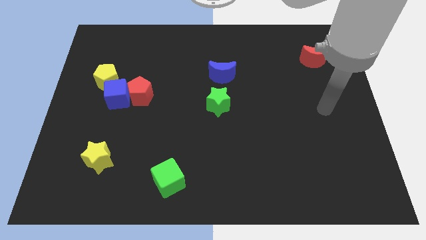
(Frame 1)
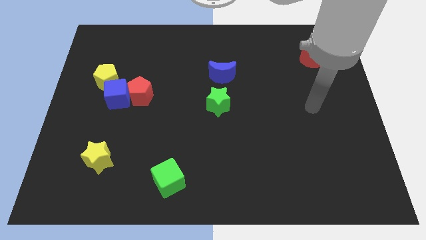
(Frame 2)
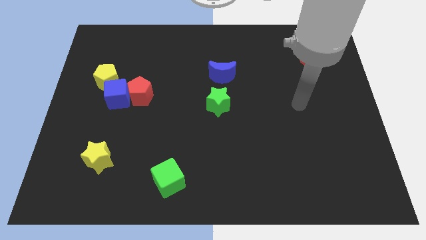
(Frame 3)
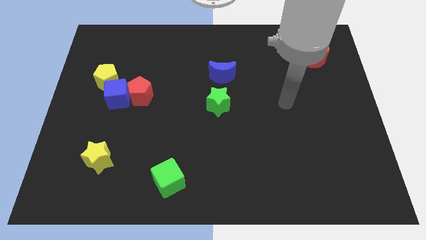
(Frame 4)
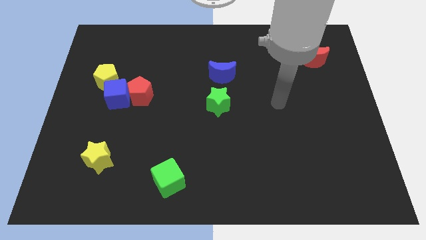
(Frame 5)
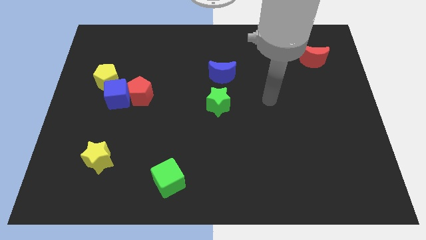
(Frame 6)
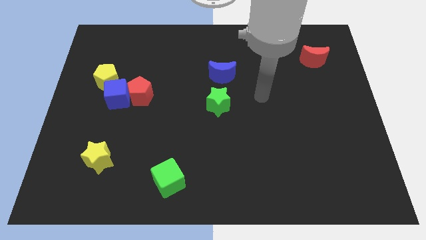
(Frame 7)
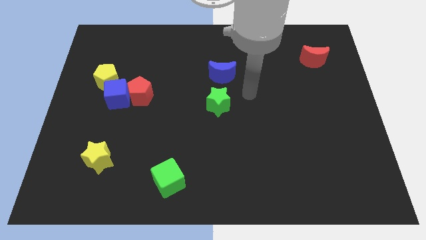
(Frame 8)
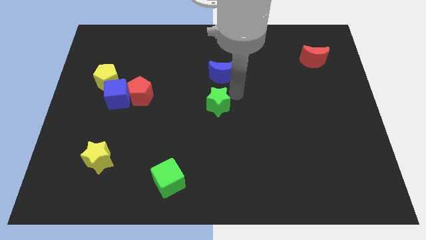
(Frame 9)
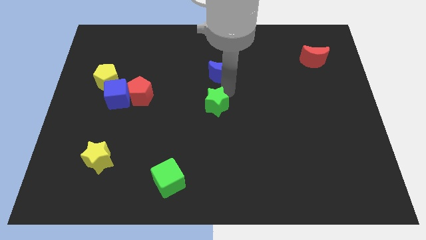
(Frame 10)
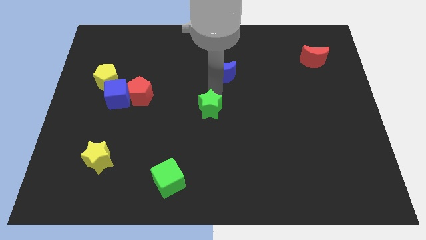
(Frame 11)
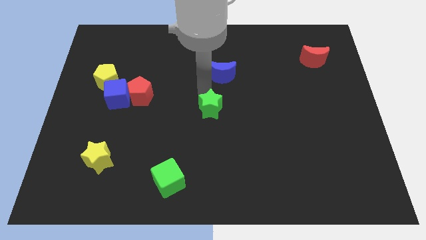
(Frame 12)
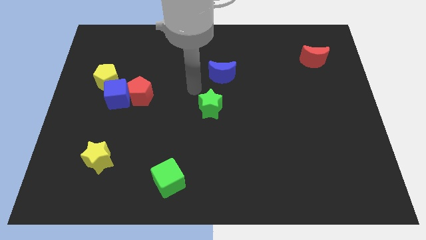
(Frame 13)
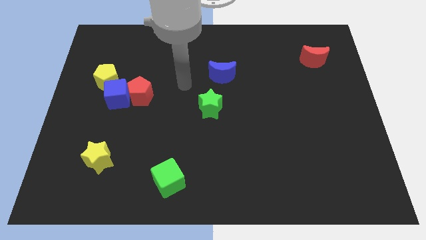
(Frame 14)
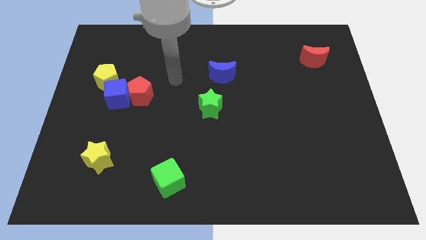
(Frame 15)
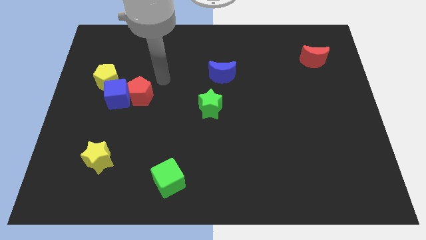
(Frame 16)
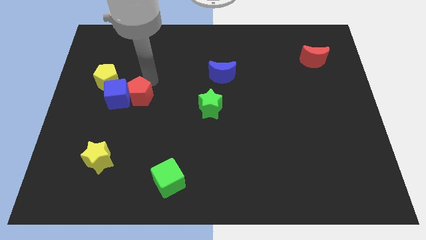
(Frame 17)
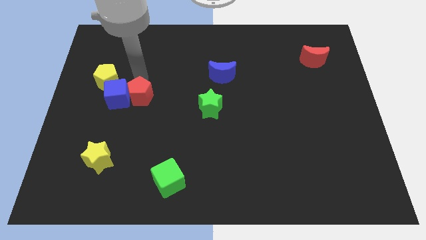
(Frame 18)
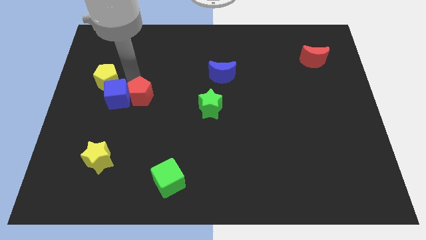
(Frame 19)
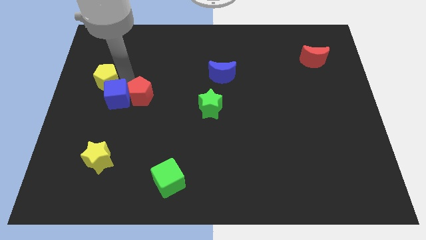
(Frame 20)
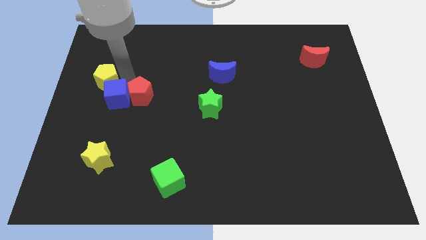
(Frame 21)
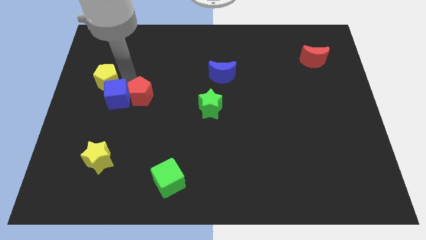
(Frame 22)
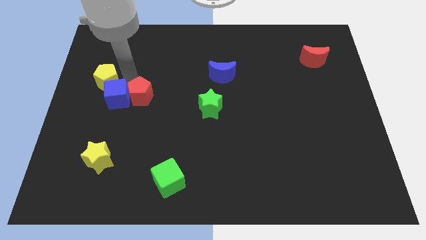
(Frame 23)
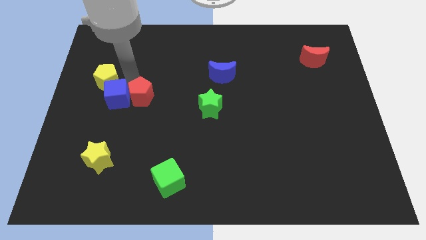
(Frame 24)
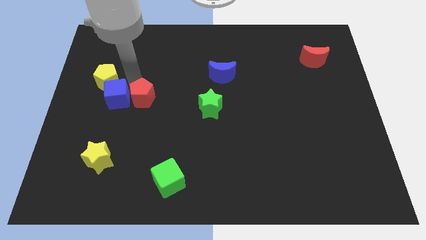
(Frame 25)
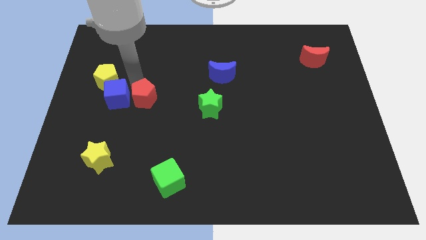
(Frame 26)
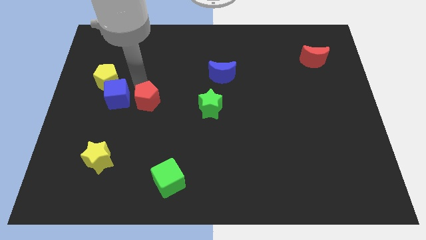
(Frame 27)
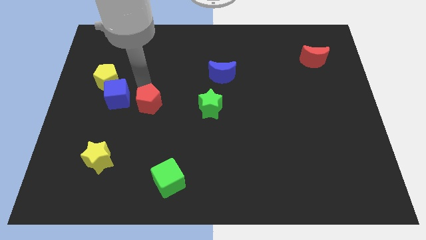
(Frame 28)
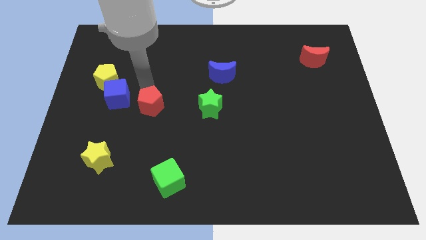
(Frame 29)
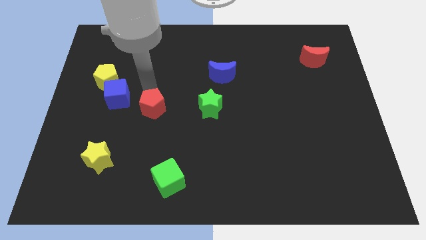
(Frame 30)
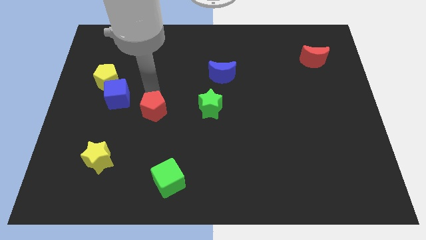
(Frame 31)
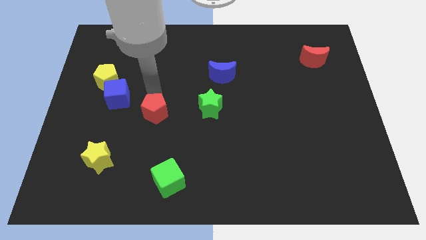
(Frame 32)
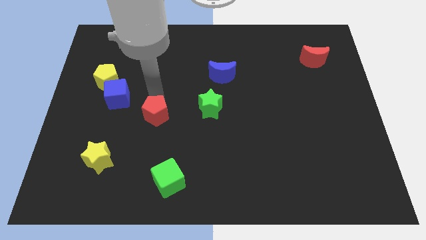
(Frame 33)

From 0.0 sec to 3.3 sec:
move the red pentagon a little down and right diagonally

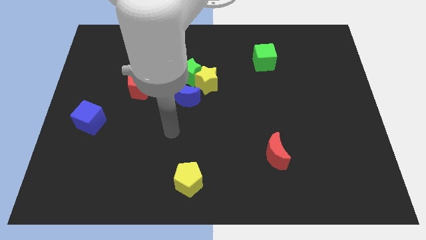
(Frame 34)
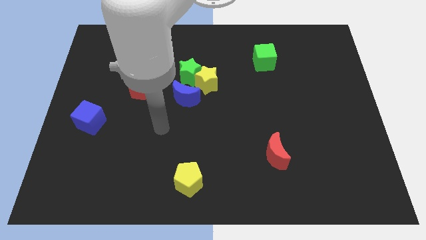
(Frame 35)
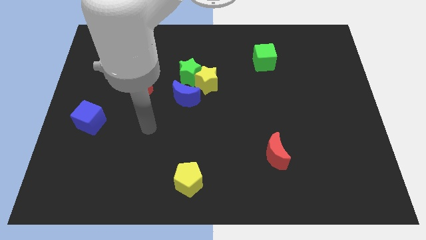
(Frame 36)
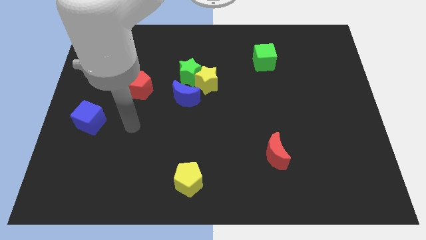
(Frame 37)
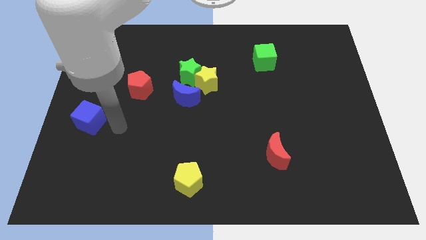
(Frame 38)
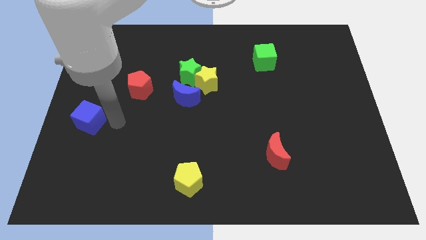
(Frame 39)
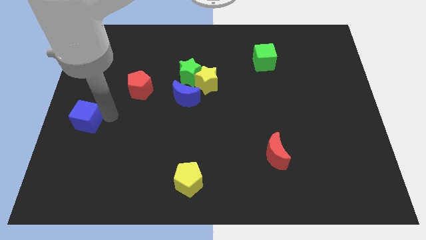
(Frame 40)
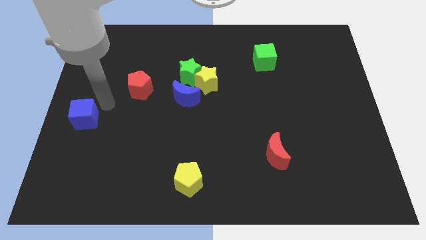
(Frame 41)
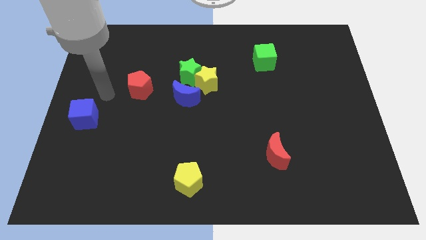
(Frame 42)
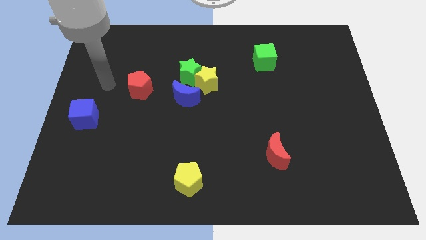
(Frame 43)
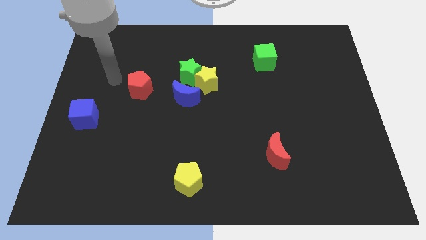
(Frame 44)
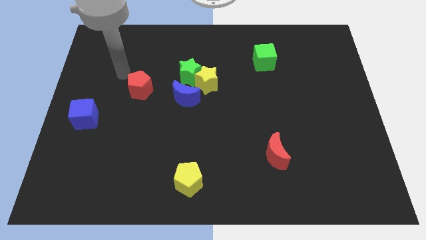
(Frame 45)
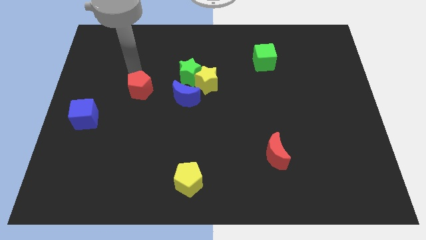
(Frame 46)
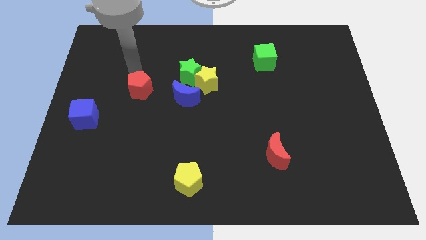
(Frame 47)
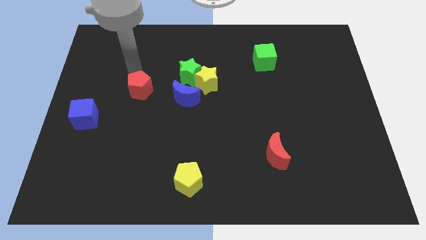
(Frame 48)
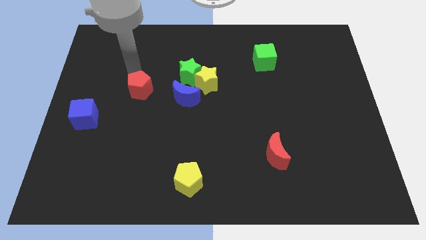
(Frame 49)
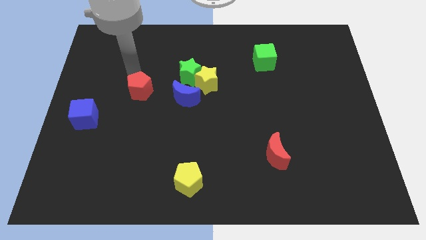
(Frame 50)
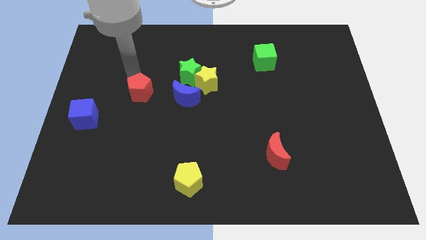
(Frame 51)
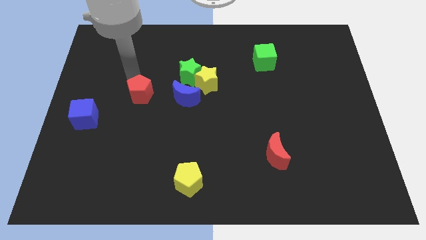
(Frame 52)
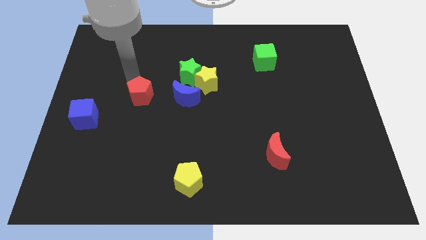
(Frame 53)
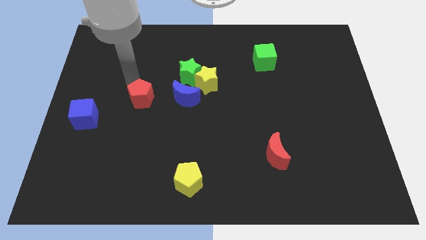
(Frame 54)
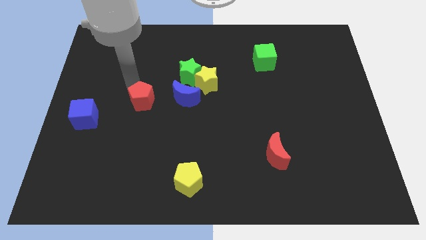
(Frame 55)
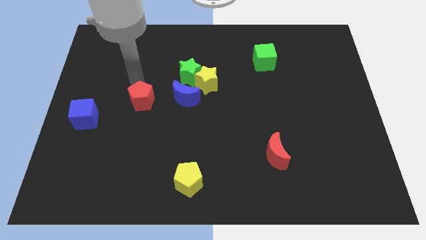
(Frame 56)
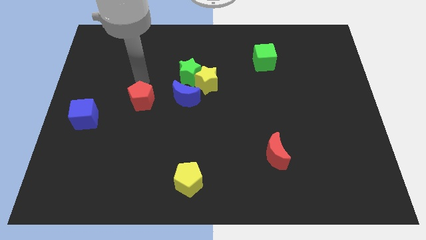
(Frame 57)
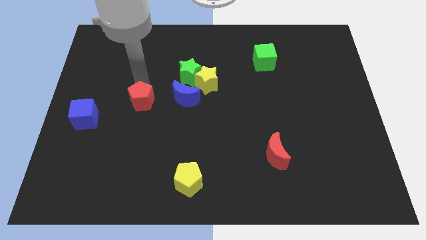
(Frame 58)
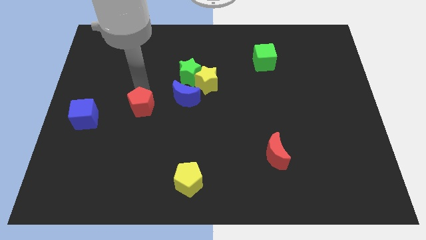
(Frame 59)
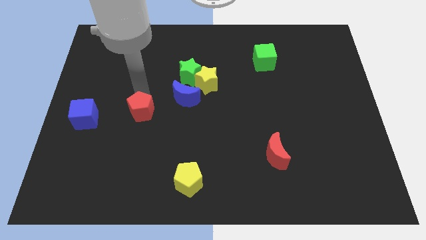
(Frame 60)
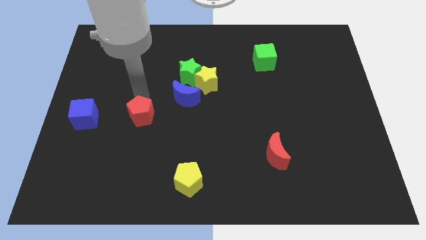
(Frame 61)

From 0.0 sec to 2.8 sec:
push the red pentagon downwards a little bit

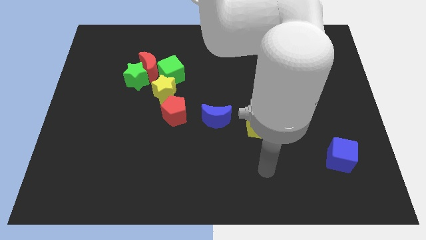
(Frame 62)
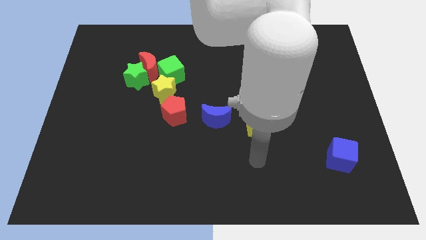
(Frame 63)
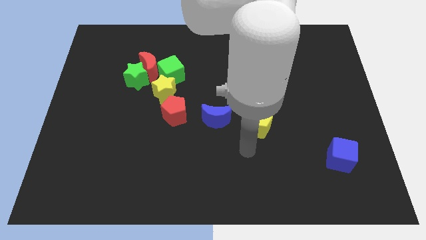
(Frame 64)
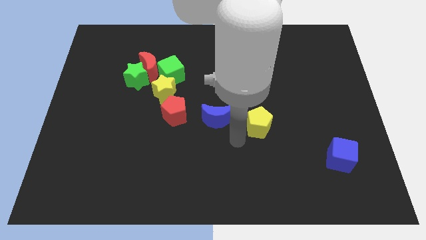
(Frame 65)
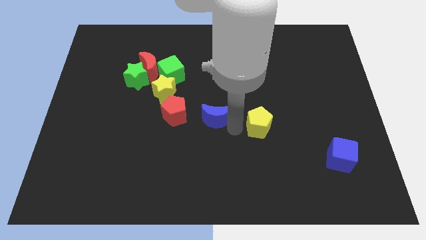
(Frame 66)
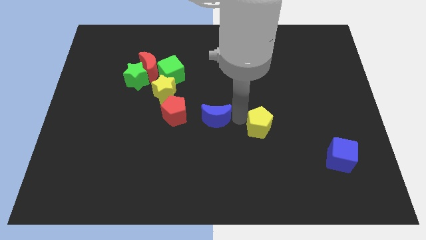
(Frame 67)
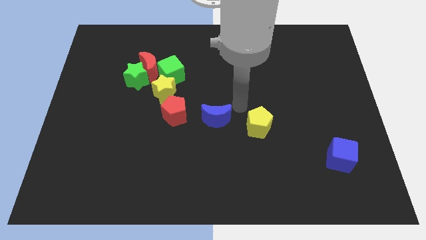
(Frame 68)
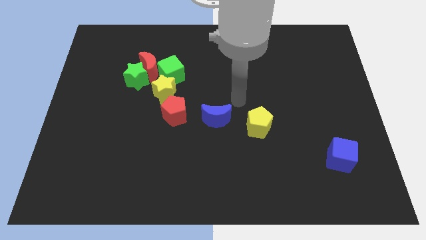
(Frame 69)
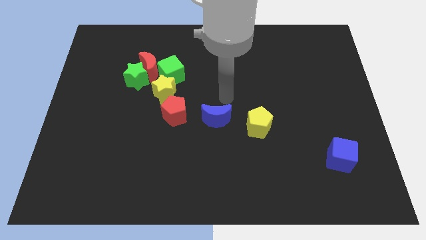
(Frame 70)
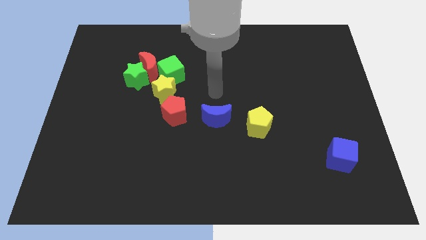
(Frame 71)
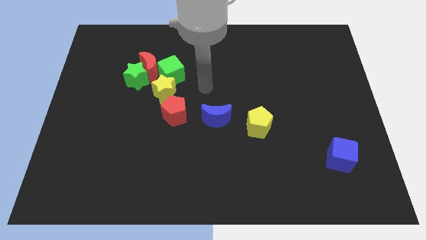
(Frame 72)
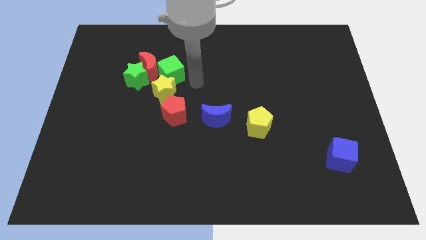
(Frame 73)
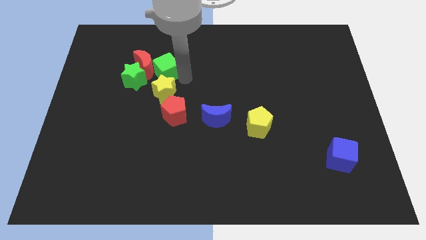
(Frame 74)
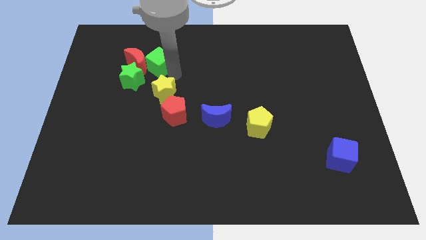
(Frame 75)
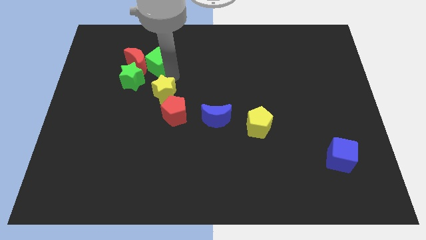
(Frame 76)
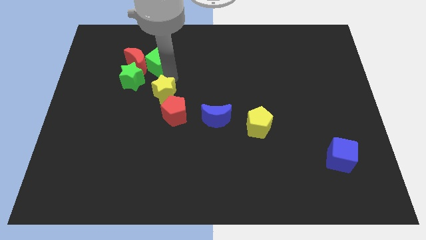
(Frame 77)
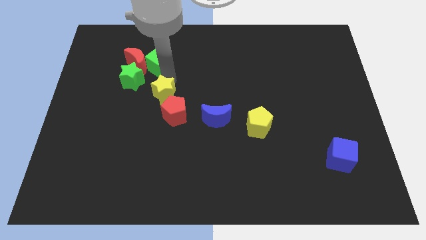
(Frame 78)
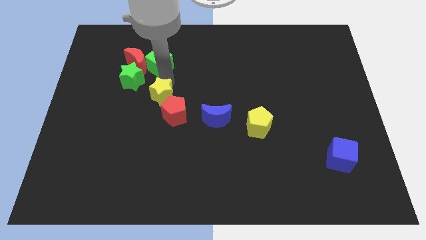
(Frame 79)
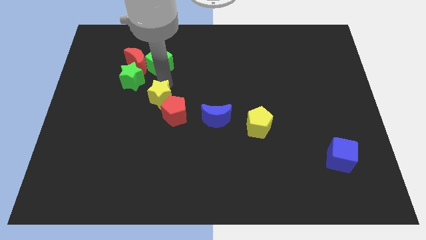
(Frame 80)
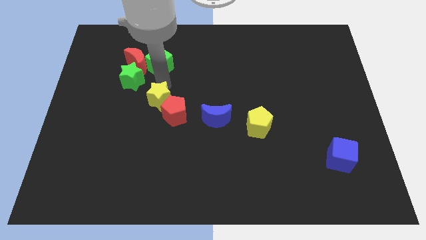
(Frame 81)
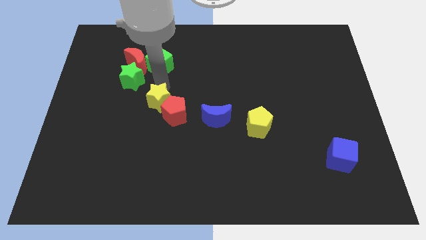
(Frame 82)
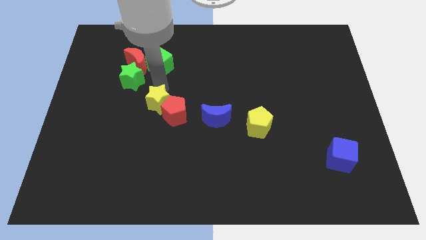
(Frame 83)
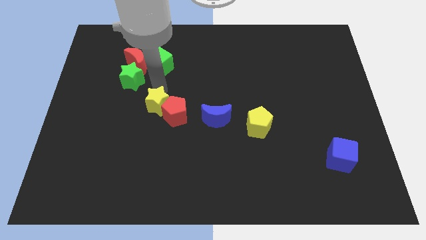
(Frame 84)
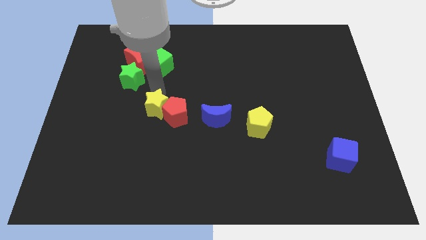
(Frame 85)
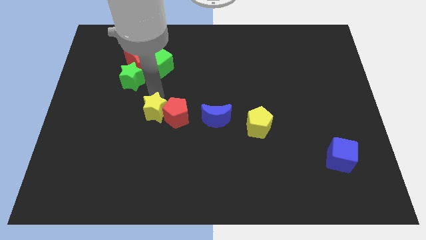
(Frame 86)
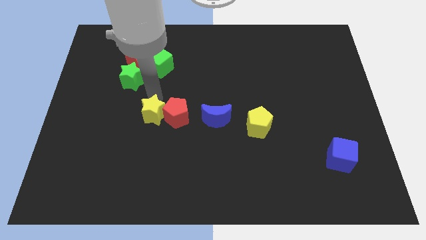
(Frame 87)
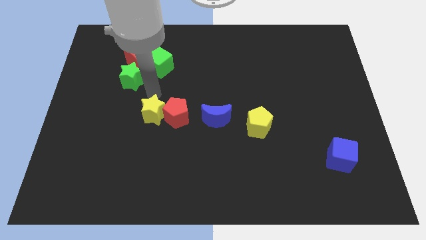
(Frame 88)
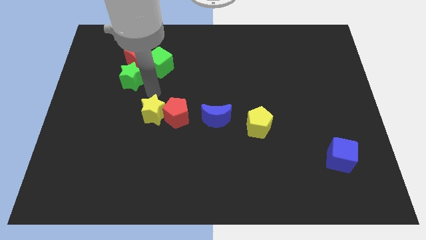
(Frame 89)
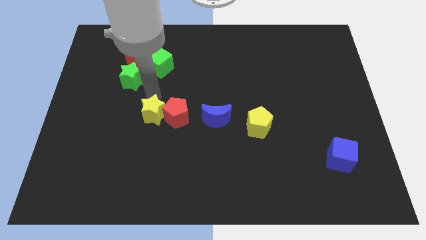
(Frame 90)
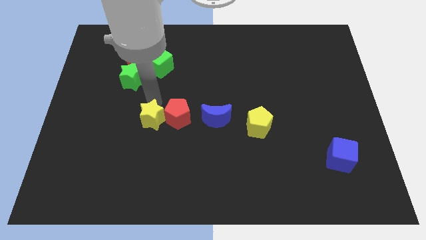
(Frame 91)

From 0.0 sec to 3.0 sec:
move the yellow star a little down
